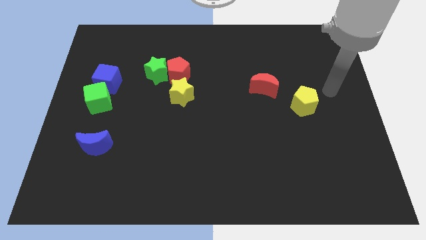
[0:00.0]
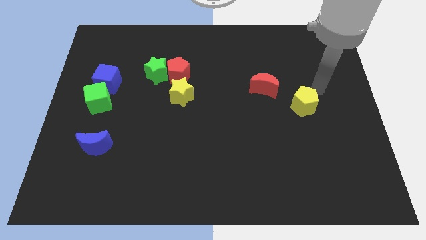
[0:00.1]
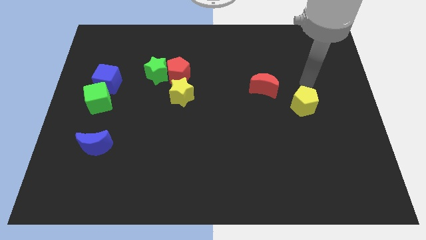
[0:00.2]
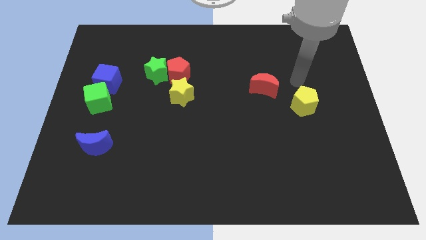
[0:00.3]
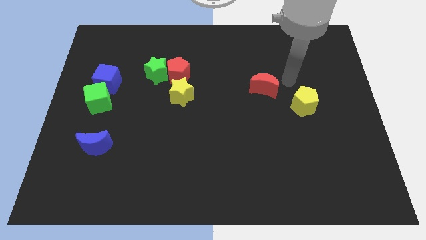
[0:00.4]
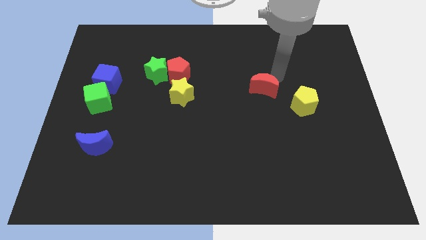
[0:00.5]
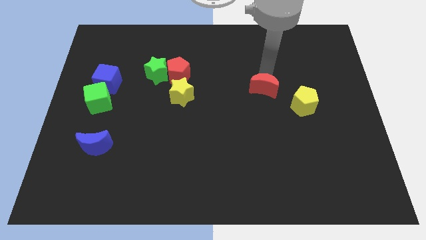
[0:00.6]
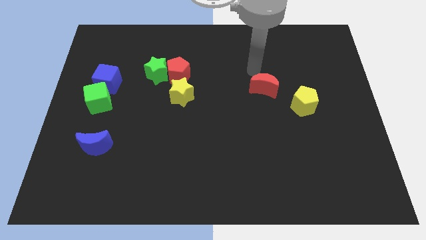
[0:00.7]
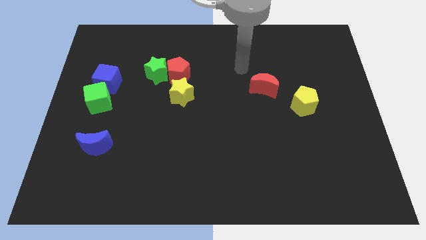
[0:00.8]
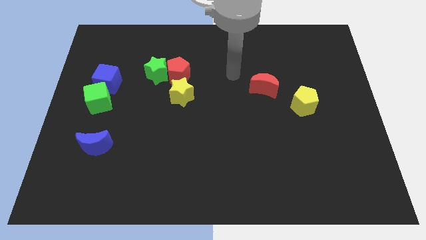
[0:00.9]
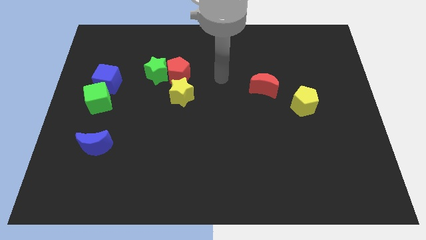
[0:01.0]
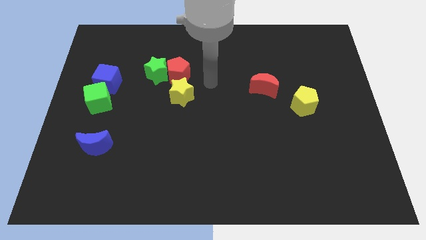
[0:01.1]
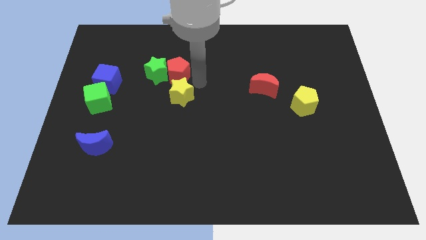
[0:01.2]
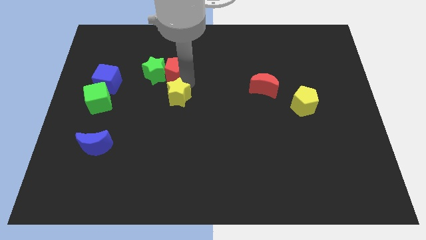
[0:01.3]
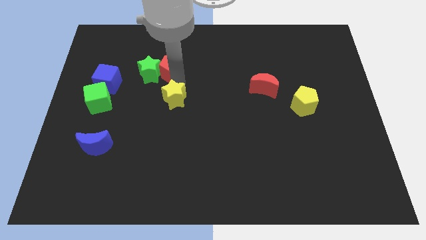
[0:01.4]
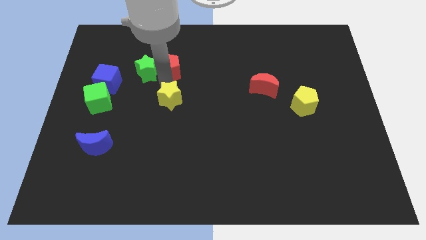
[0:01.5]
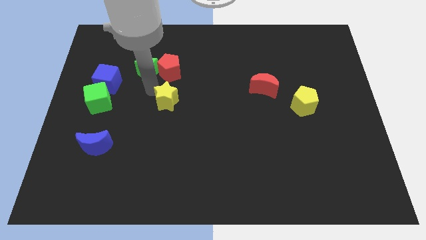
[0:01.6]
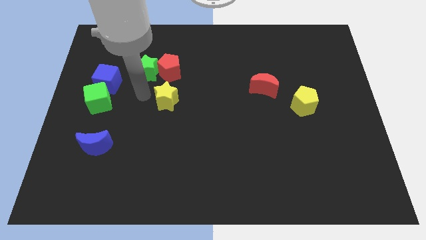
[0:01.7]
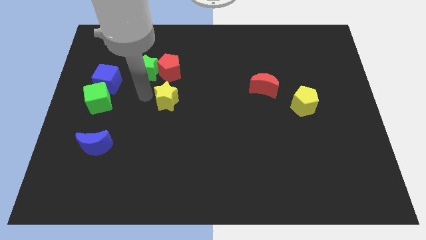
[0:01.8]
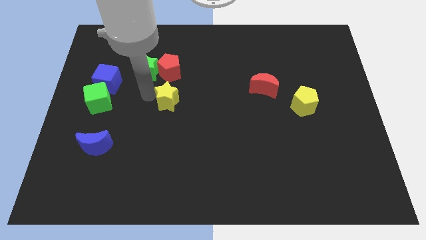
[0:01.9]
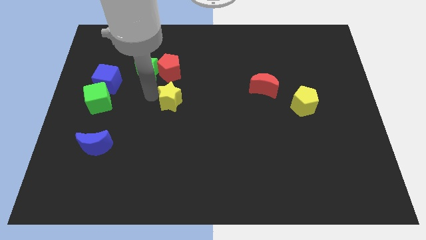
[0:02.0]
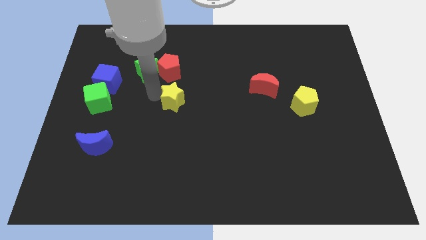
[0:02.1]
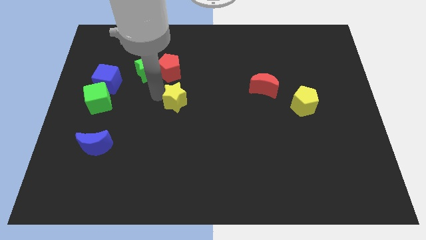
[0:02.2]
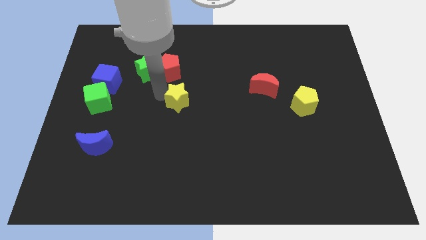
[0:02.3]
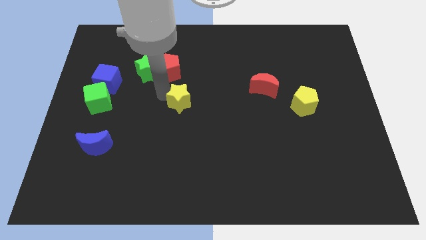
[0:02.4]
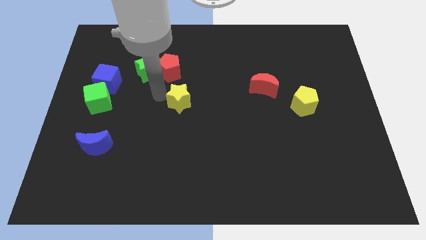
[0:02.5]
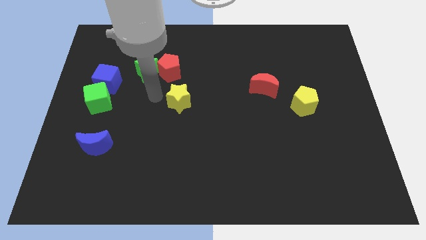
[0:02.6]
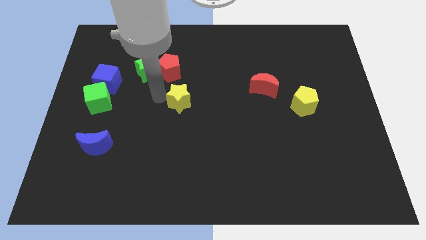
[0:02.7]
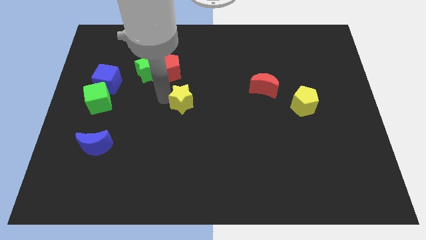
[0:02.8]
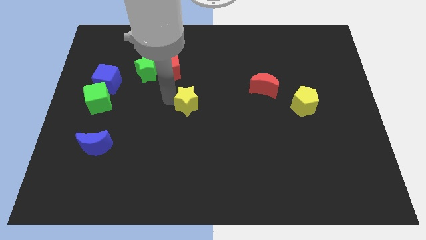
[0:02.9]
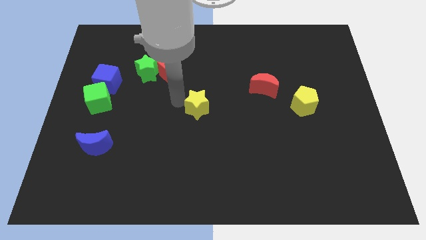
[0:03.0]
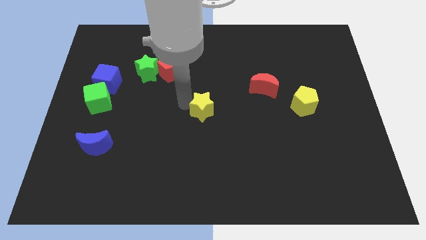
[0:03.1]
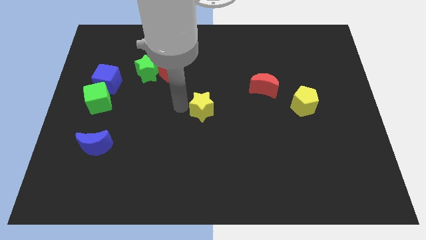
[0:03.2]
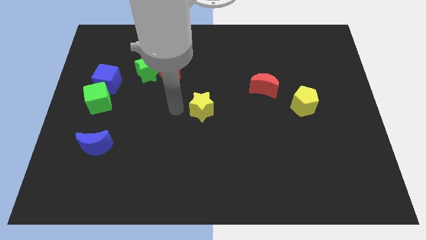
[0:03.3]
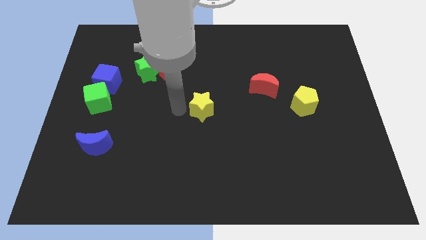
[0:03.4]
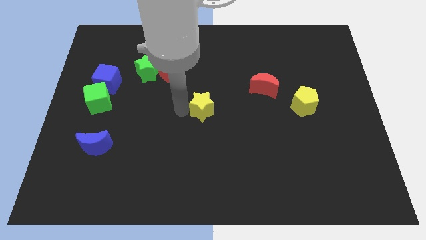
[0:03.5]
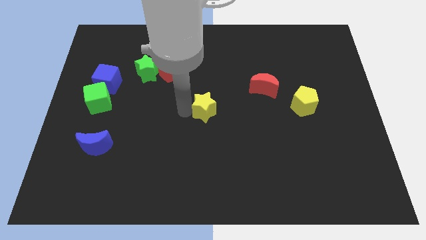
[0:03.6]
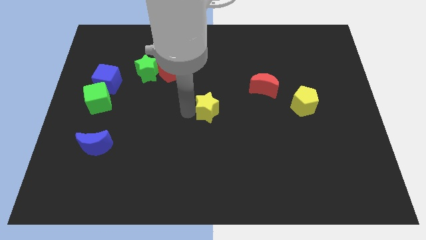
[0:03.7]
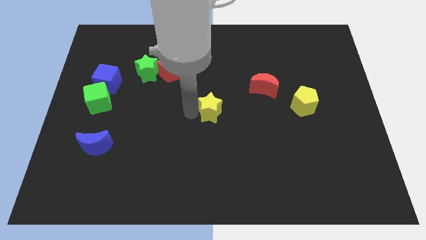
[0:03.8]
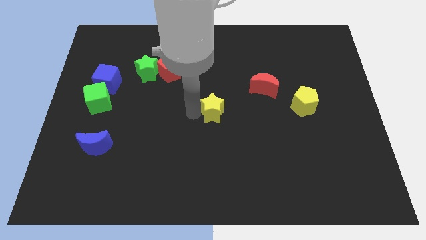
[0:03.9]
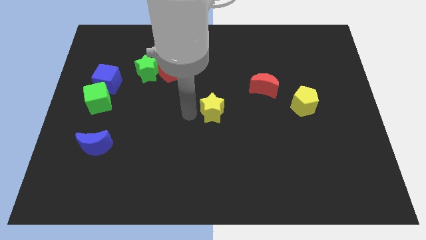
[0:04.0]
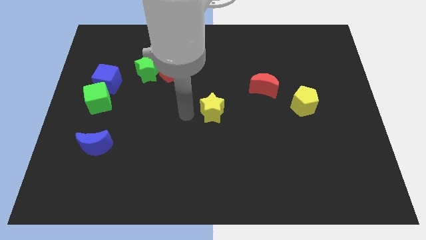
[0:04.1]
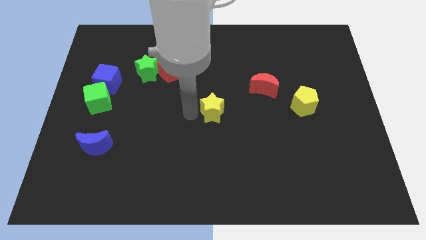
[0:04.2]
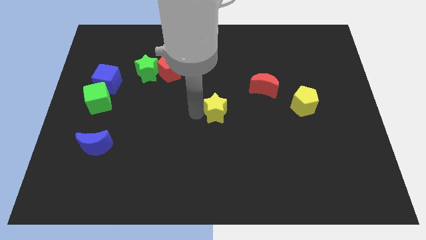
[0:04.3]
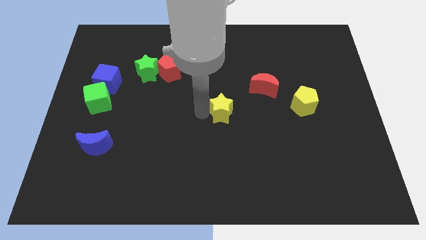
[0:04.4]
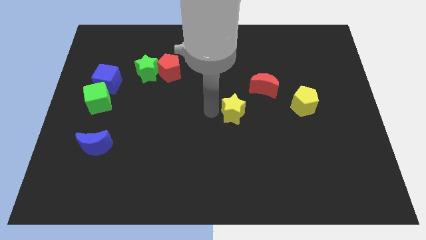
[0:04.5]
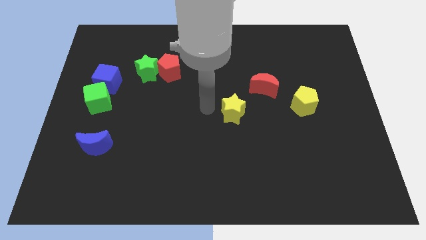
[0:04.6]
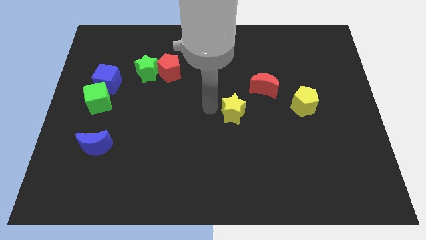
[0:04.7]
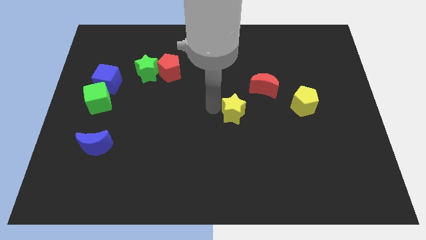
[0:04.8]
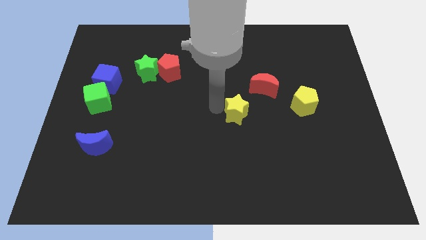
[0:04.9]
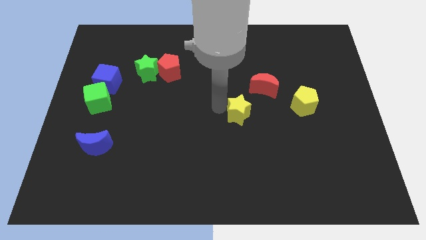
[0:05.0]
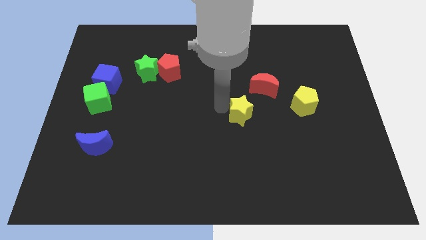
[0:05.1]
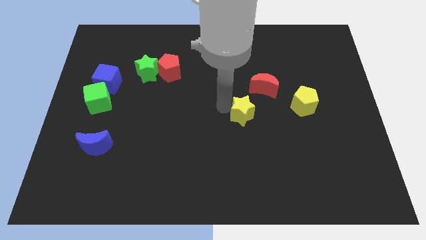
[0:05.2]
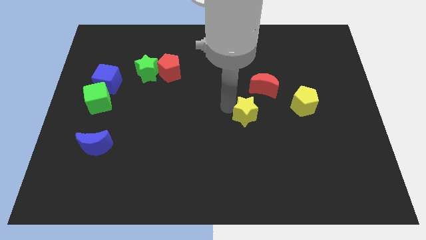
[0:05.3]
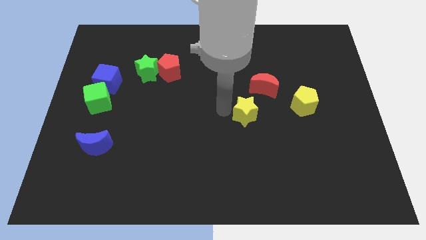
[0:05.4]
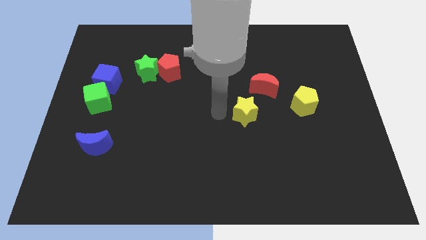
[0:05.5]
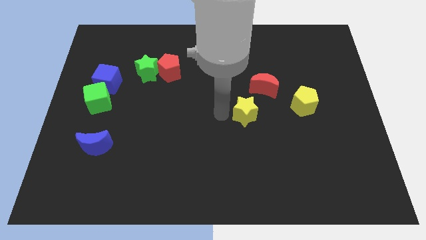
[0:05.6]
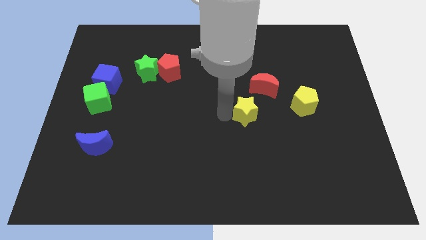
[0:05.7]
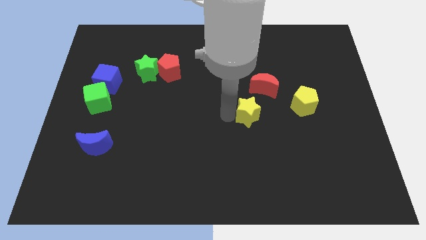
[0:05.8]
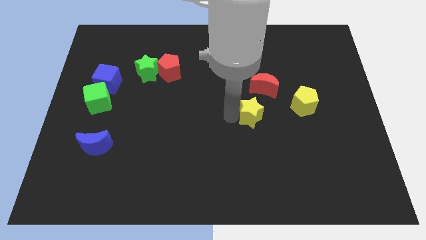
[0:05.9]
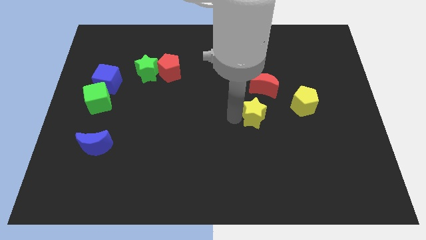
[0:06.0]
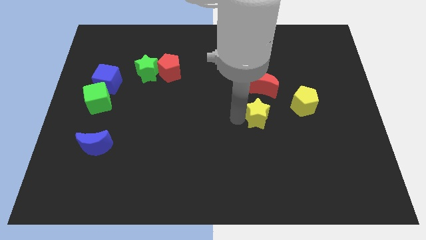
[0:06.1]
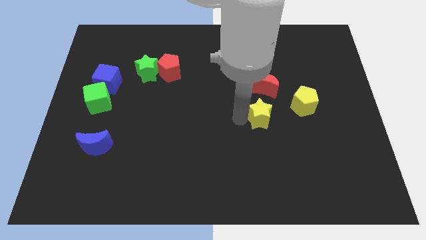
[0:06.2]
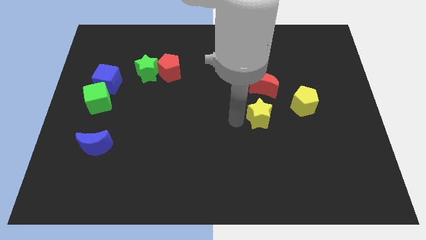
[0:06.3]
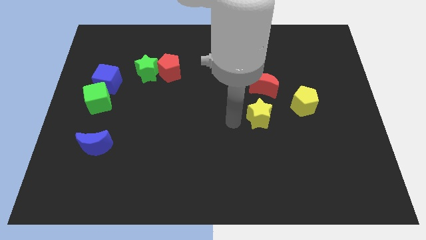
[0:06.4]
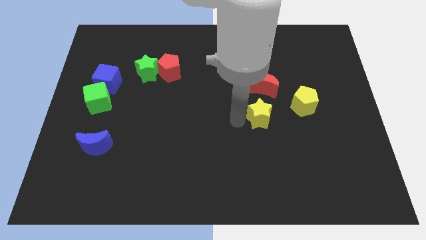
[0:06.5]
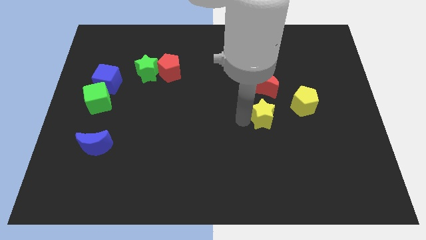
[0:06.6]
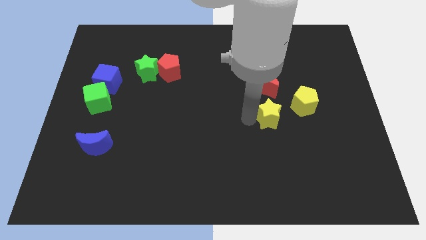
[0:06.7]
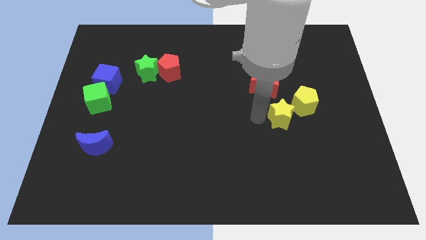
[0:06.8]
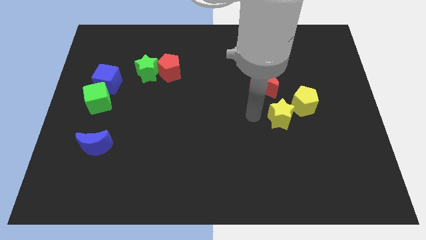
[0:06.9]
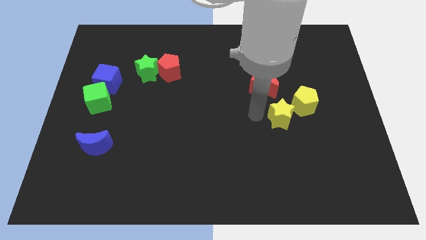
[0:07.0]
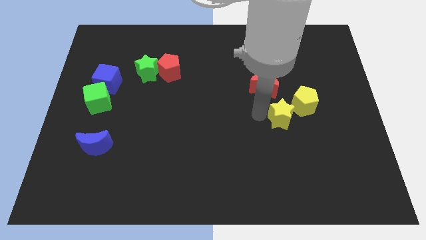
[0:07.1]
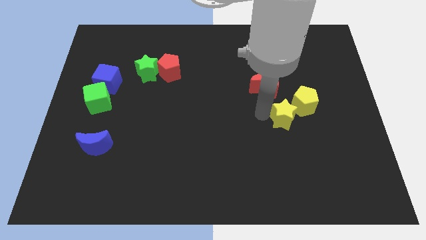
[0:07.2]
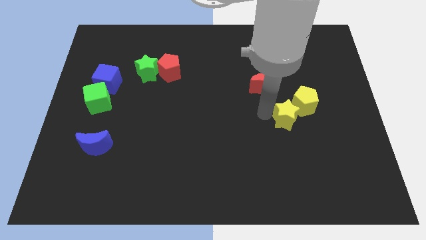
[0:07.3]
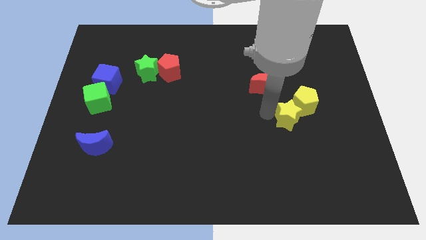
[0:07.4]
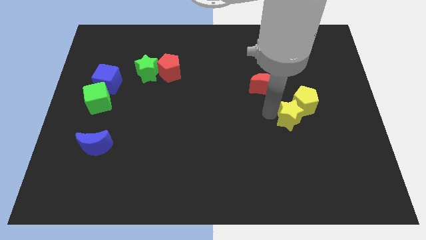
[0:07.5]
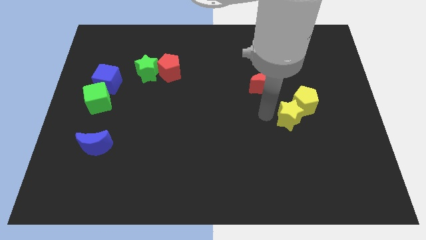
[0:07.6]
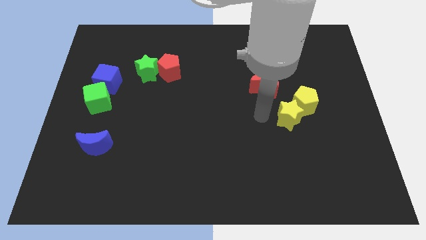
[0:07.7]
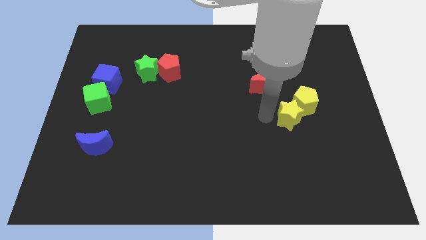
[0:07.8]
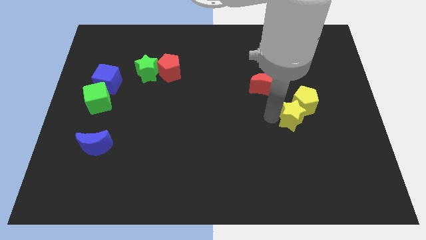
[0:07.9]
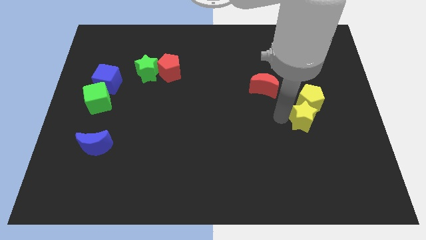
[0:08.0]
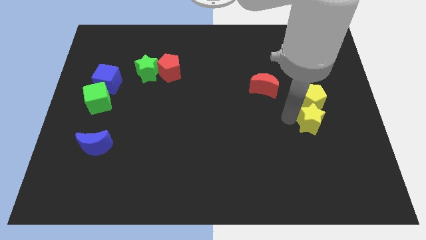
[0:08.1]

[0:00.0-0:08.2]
slide the yellow star diagonally down and to the right of the yellow pentagon
